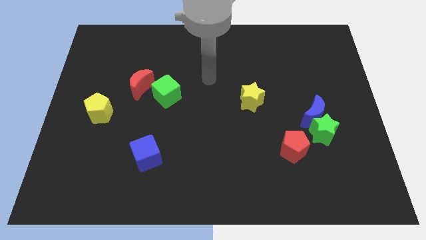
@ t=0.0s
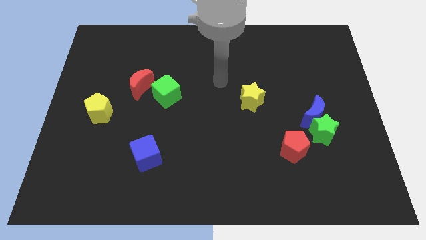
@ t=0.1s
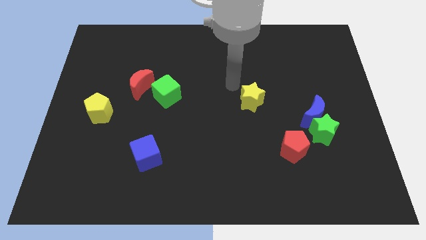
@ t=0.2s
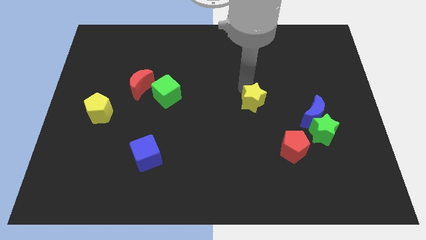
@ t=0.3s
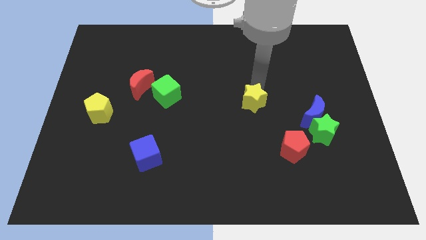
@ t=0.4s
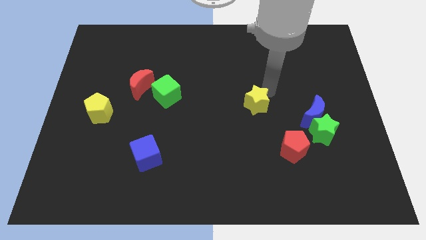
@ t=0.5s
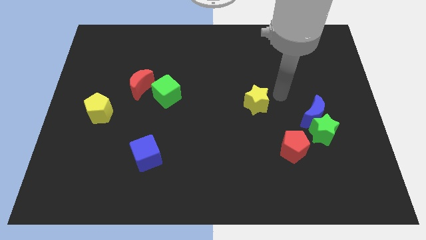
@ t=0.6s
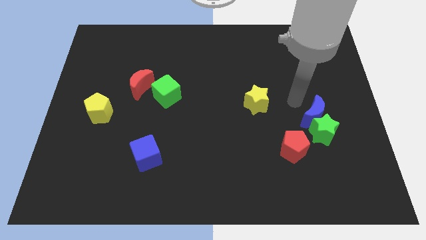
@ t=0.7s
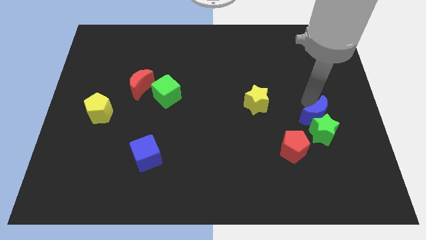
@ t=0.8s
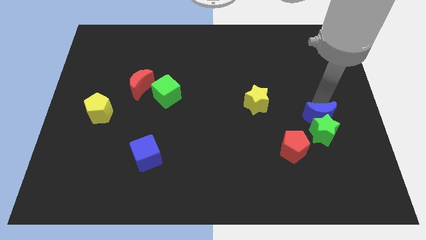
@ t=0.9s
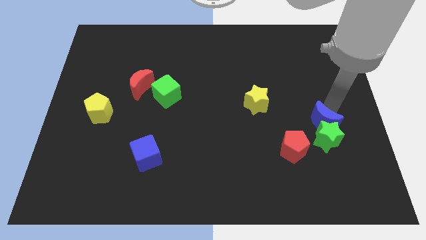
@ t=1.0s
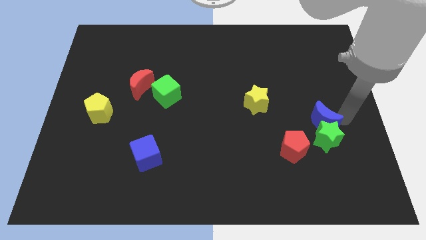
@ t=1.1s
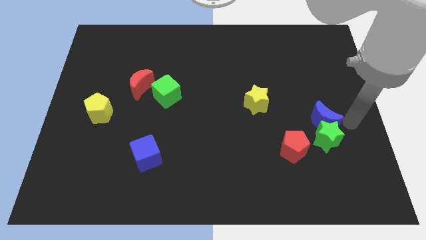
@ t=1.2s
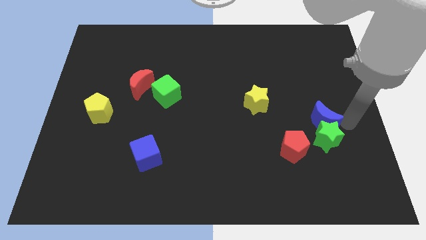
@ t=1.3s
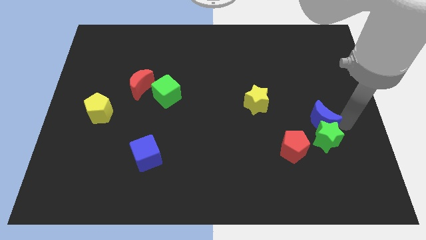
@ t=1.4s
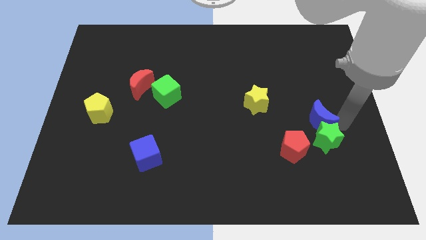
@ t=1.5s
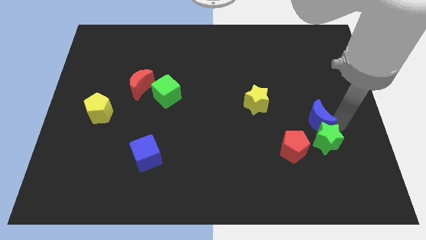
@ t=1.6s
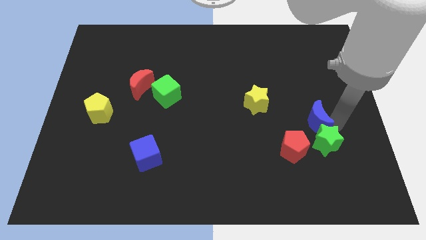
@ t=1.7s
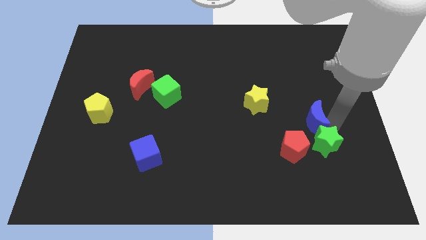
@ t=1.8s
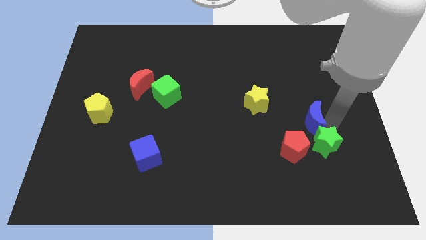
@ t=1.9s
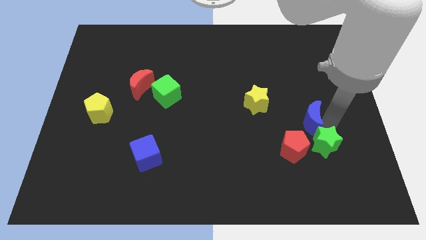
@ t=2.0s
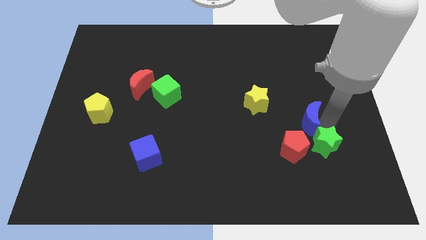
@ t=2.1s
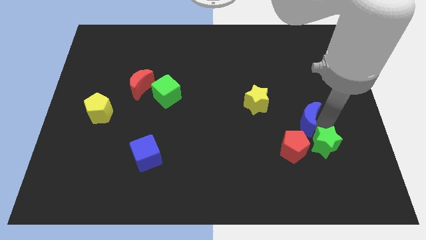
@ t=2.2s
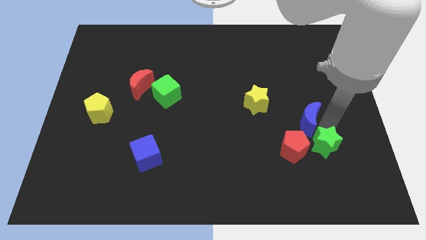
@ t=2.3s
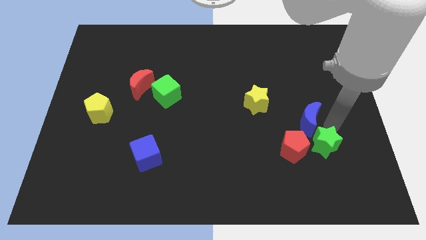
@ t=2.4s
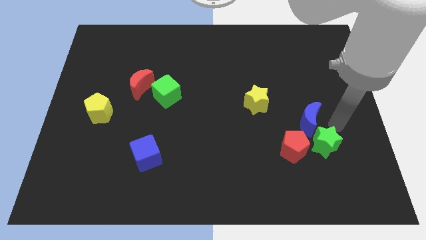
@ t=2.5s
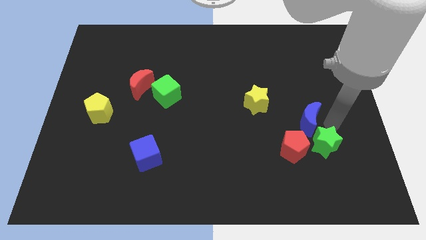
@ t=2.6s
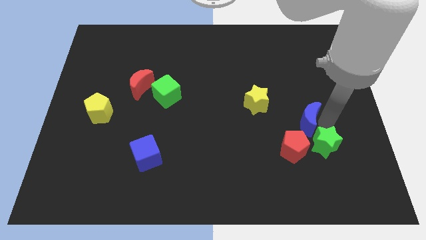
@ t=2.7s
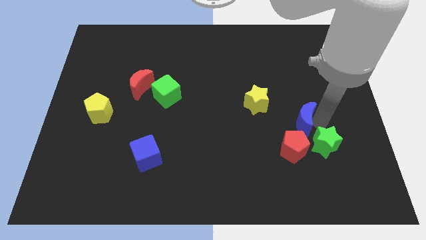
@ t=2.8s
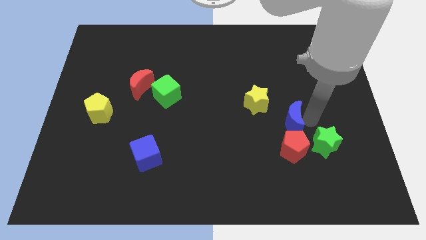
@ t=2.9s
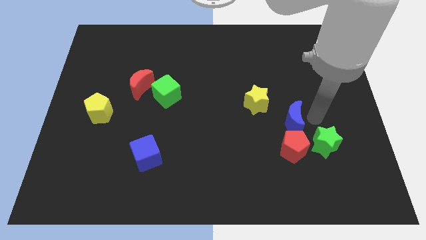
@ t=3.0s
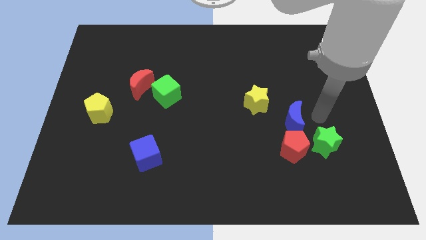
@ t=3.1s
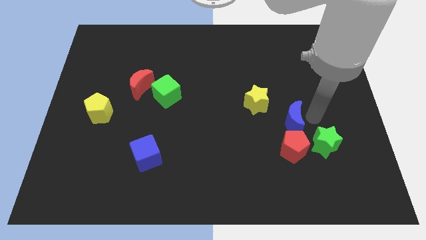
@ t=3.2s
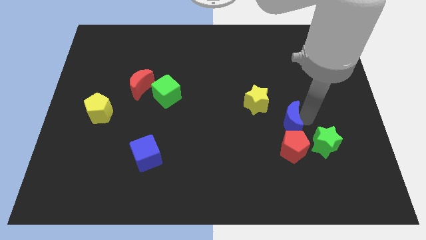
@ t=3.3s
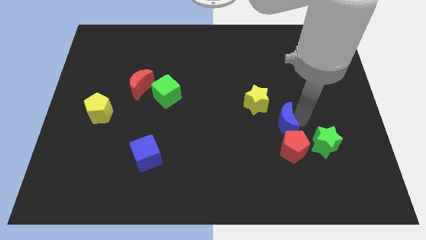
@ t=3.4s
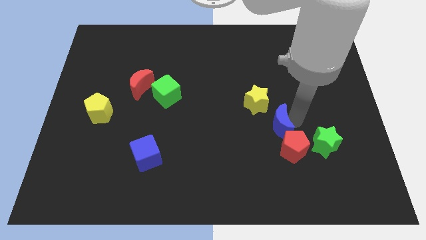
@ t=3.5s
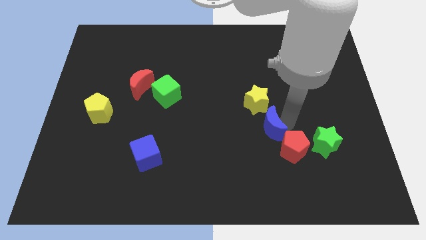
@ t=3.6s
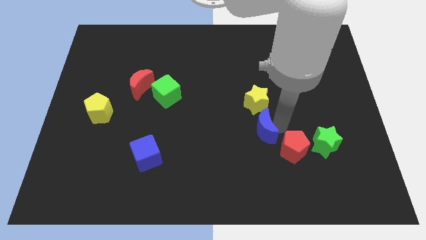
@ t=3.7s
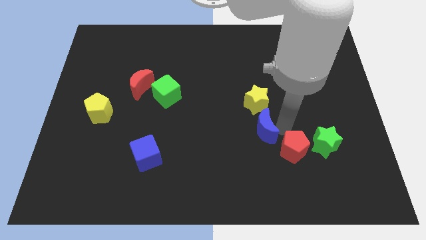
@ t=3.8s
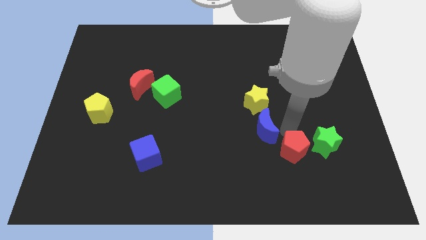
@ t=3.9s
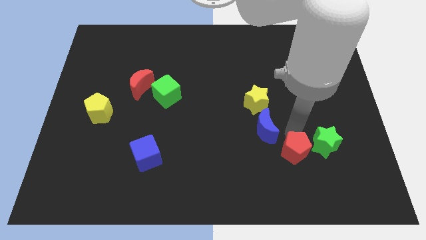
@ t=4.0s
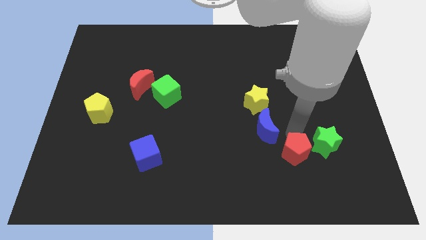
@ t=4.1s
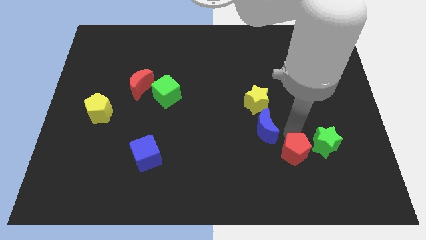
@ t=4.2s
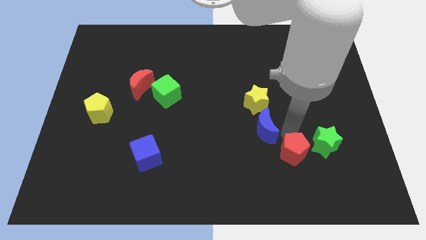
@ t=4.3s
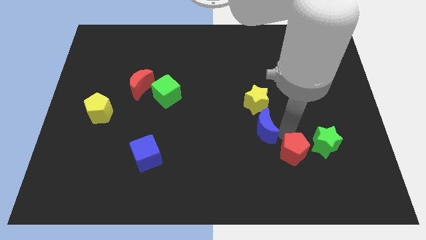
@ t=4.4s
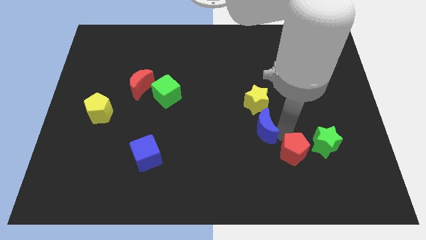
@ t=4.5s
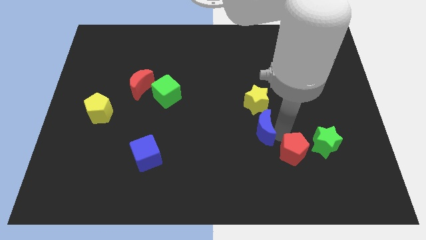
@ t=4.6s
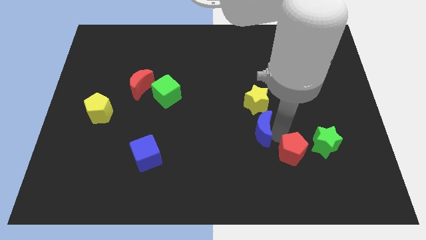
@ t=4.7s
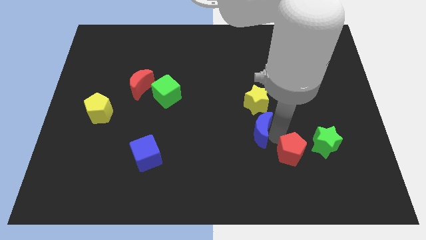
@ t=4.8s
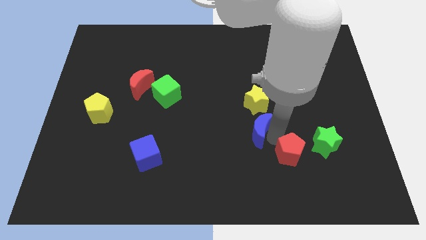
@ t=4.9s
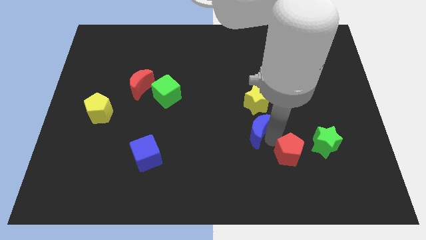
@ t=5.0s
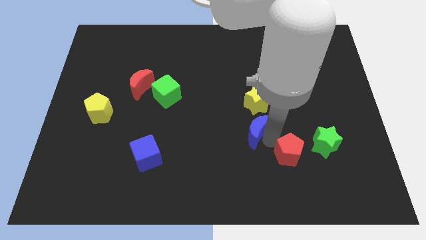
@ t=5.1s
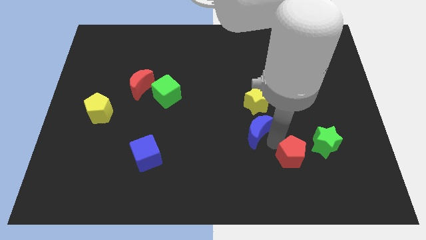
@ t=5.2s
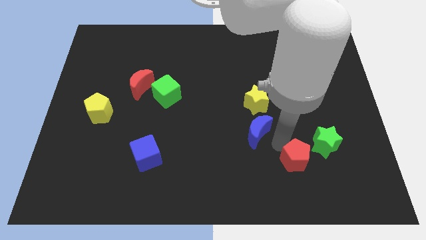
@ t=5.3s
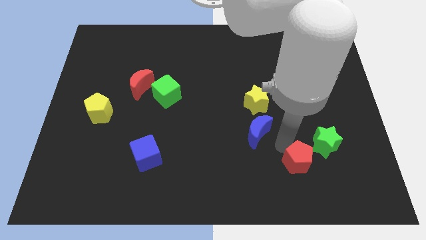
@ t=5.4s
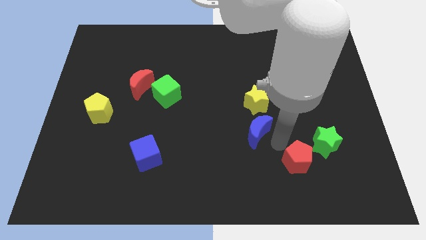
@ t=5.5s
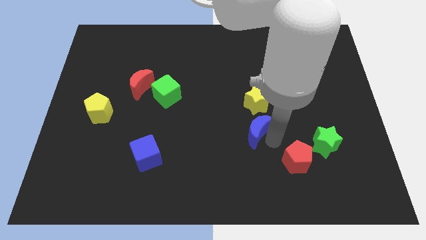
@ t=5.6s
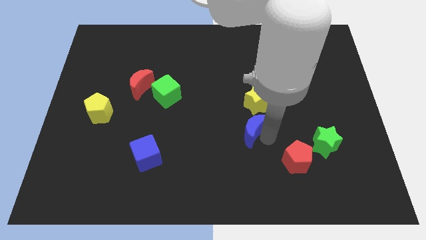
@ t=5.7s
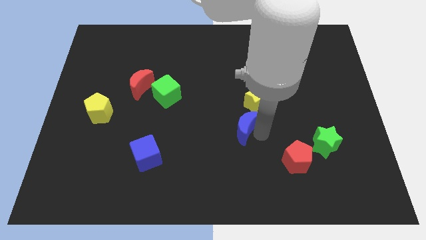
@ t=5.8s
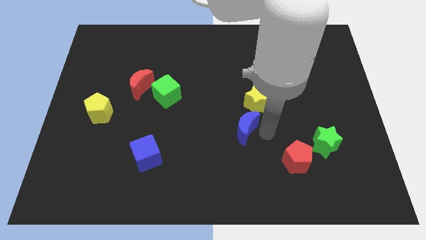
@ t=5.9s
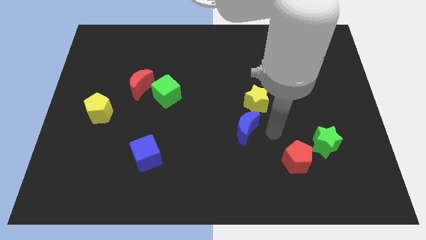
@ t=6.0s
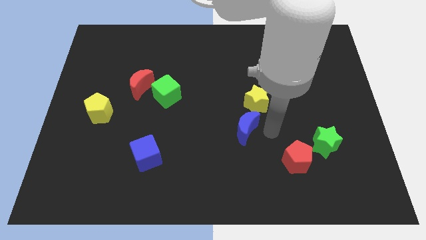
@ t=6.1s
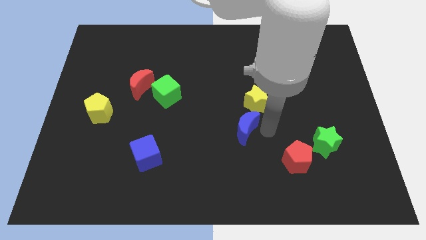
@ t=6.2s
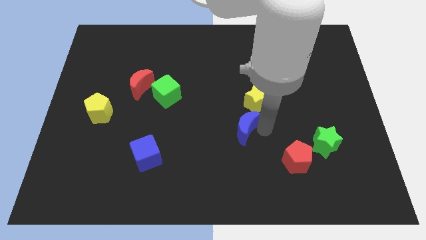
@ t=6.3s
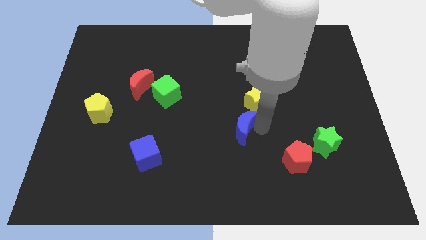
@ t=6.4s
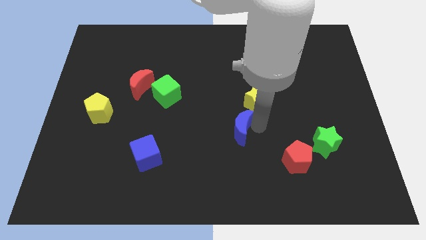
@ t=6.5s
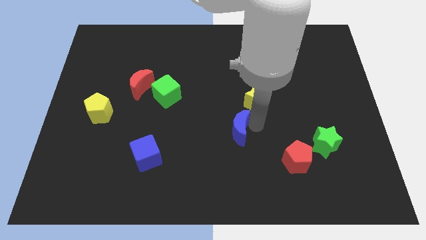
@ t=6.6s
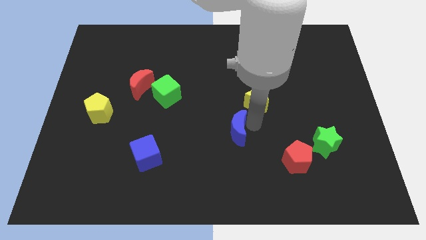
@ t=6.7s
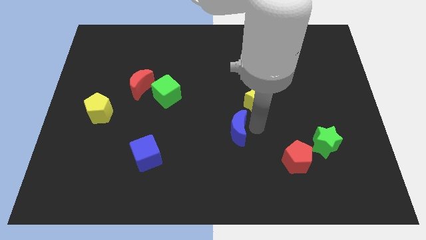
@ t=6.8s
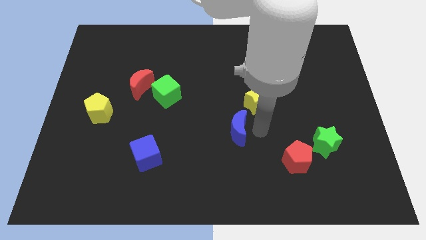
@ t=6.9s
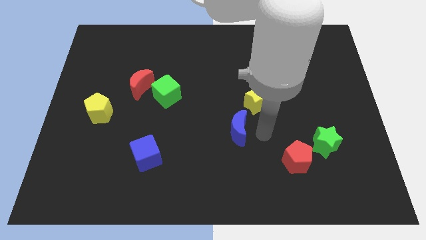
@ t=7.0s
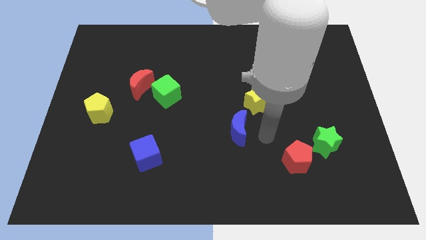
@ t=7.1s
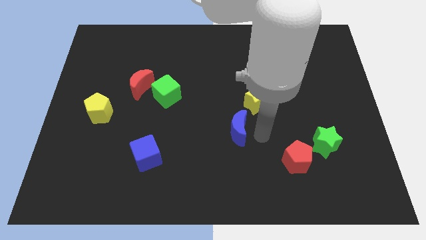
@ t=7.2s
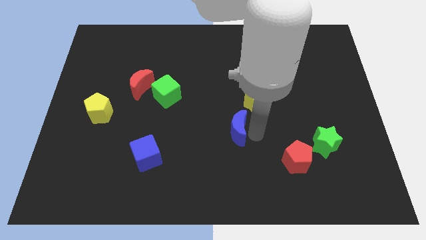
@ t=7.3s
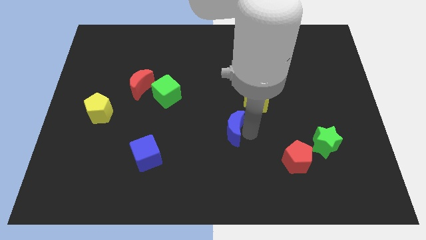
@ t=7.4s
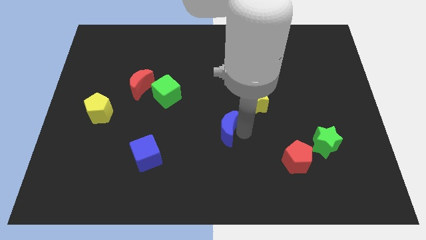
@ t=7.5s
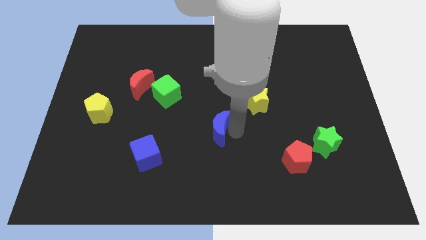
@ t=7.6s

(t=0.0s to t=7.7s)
push the blue moon to the left
